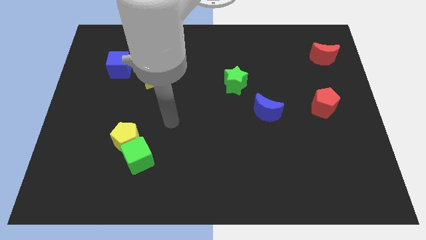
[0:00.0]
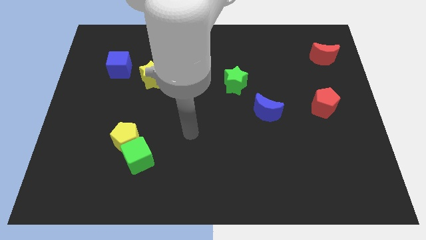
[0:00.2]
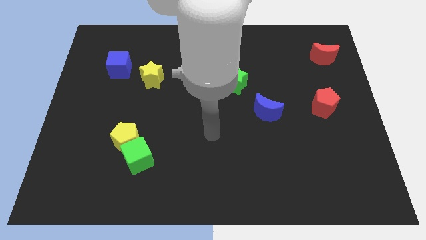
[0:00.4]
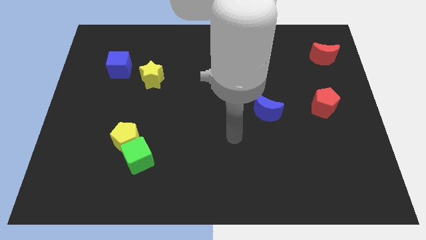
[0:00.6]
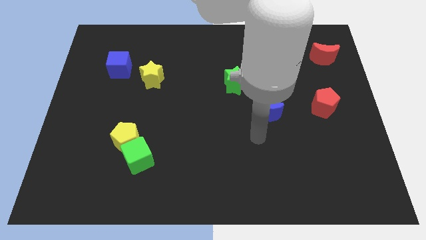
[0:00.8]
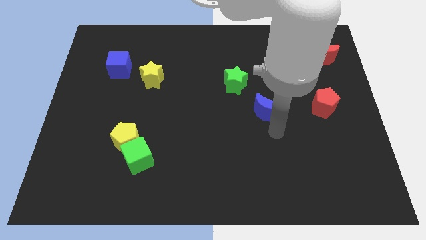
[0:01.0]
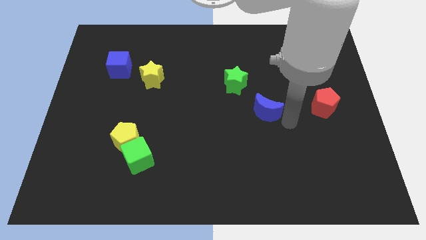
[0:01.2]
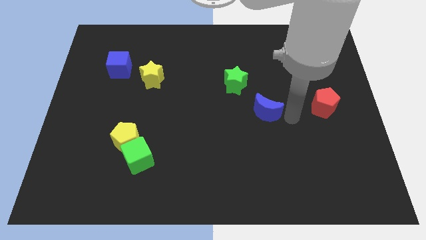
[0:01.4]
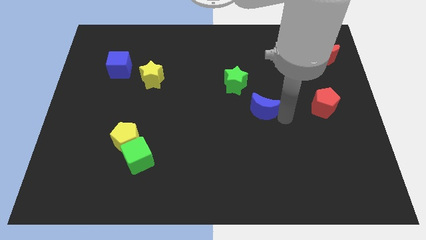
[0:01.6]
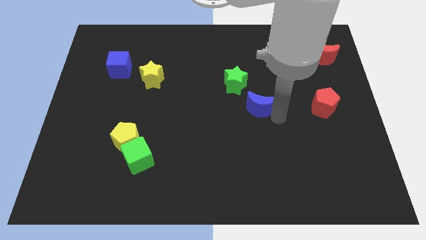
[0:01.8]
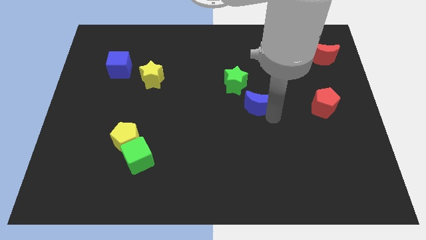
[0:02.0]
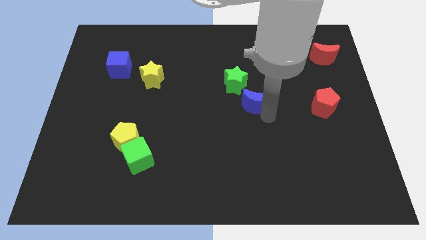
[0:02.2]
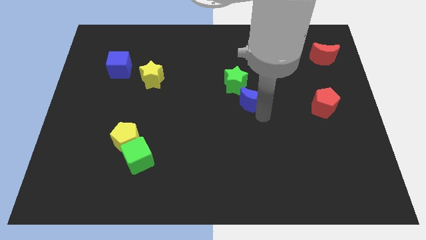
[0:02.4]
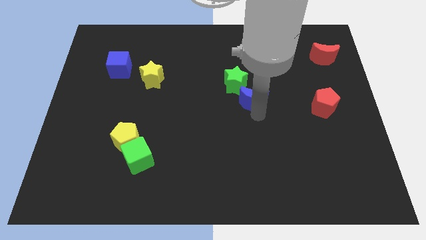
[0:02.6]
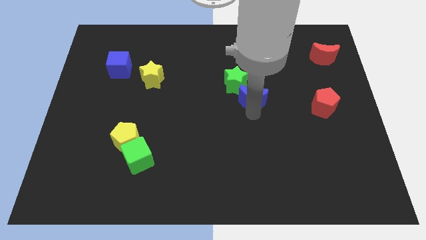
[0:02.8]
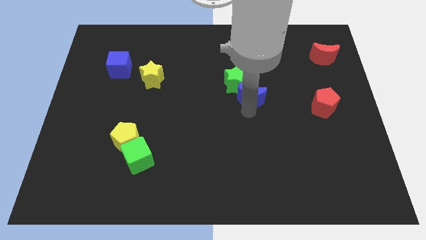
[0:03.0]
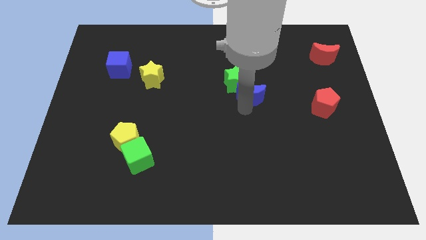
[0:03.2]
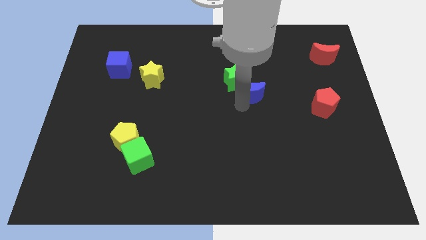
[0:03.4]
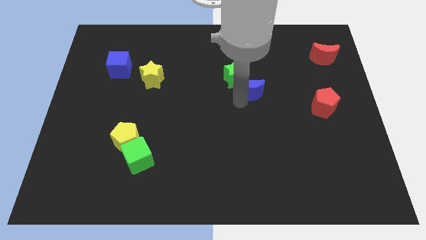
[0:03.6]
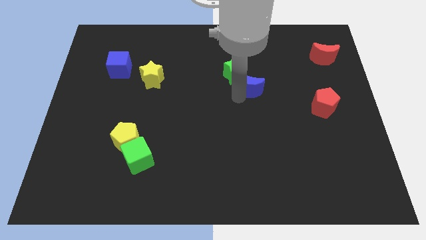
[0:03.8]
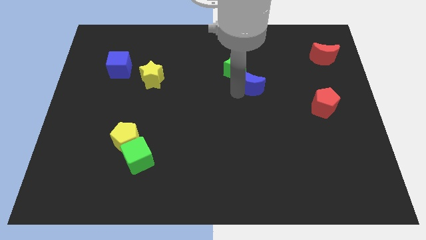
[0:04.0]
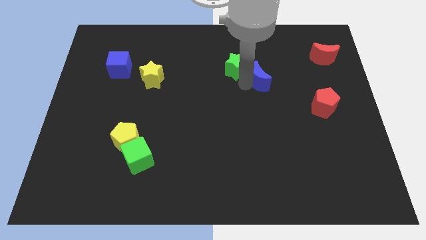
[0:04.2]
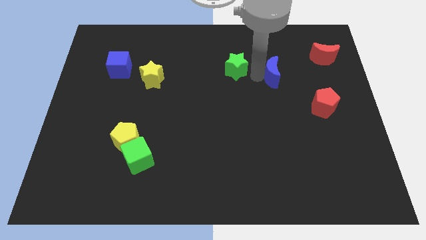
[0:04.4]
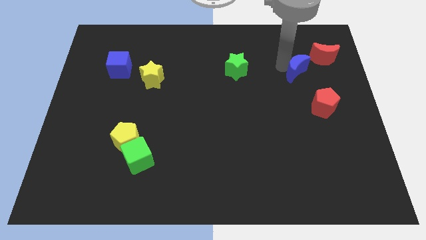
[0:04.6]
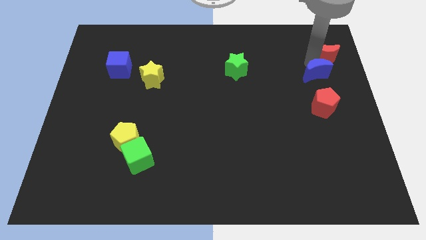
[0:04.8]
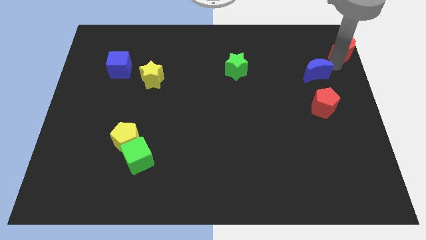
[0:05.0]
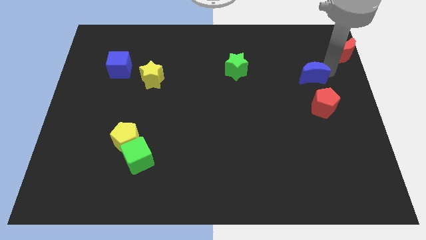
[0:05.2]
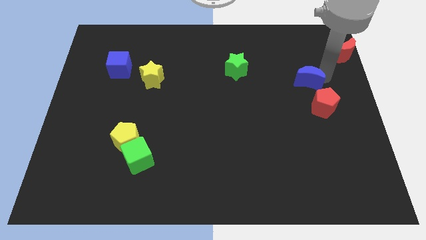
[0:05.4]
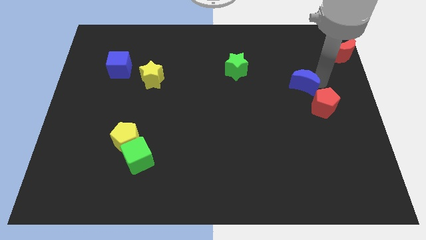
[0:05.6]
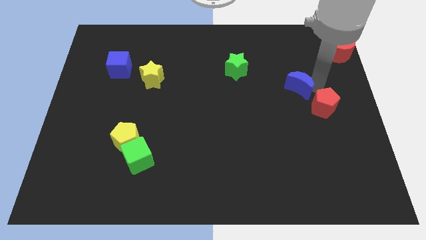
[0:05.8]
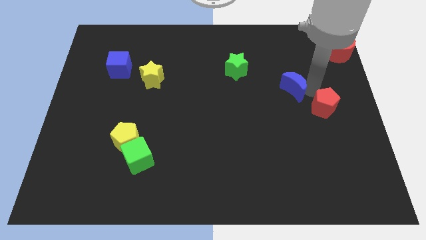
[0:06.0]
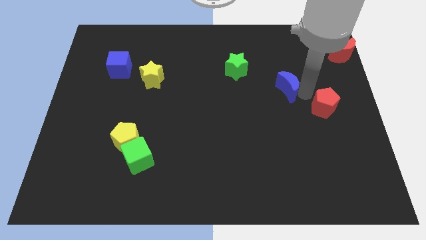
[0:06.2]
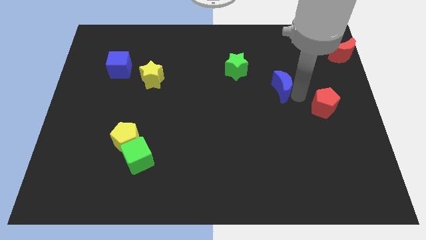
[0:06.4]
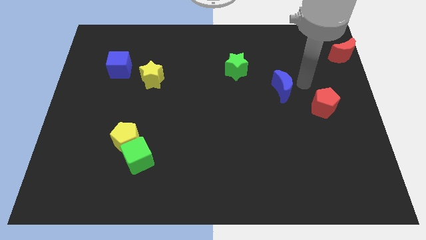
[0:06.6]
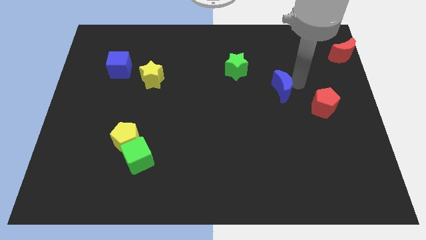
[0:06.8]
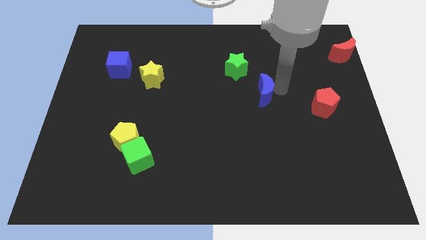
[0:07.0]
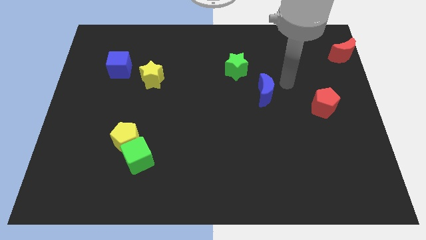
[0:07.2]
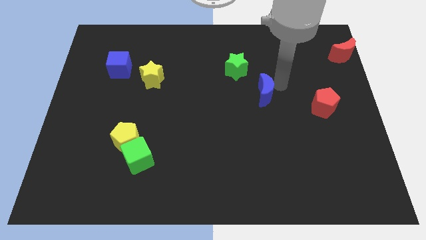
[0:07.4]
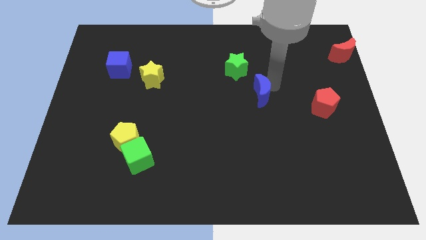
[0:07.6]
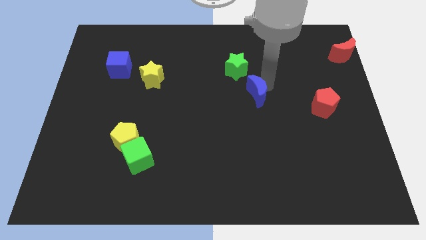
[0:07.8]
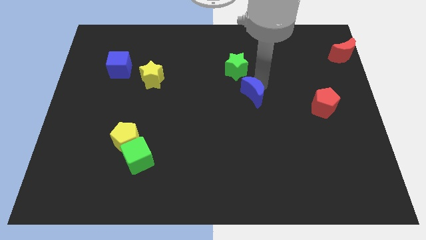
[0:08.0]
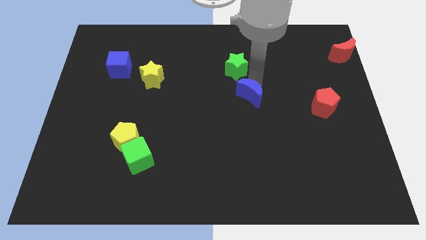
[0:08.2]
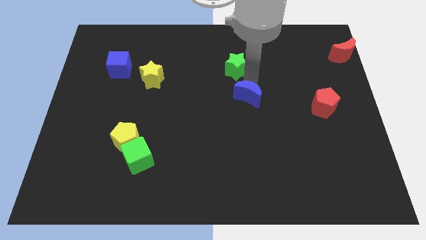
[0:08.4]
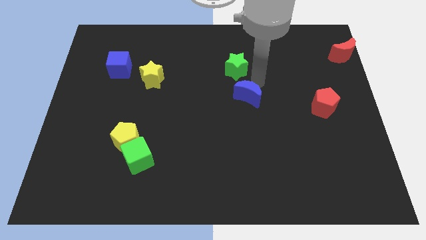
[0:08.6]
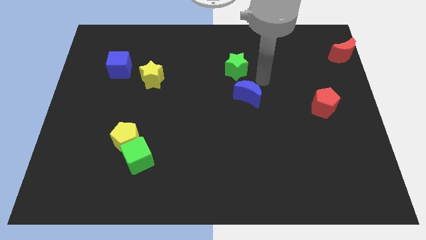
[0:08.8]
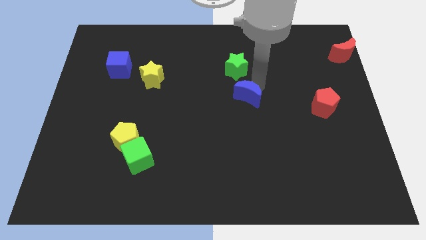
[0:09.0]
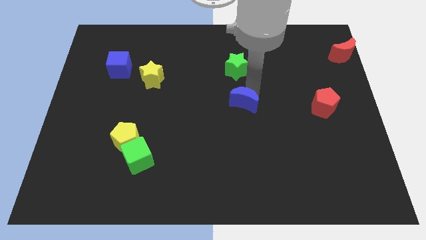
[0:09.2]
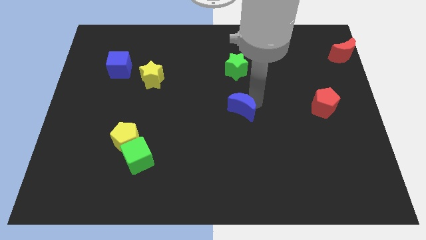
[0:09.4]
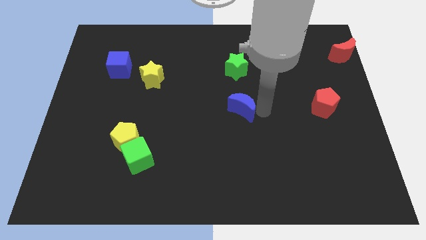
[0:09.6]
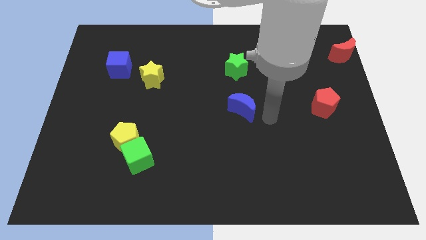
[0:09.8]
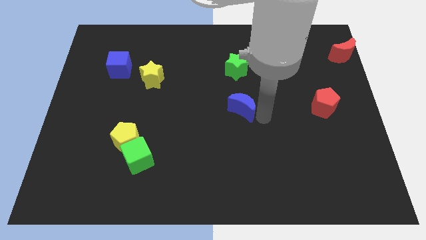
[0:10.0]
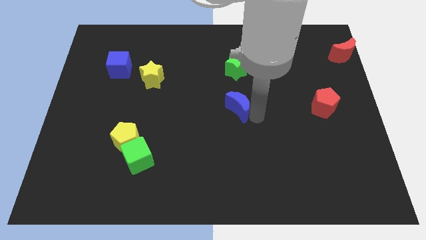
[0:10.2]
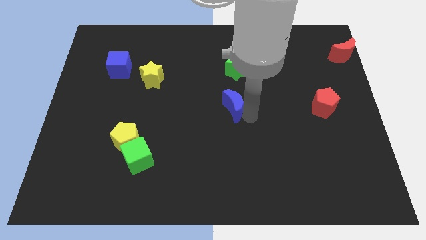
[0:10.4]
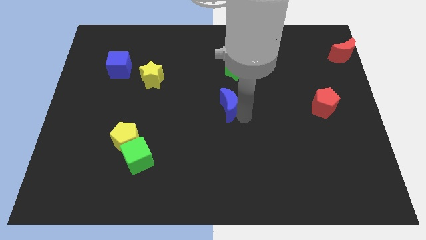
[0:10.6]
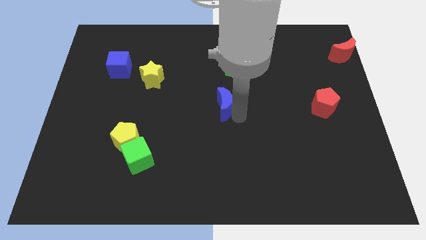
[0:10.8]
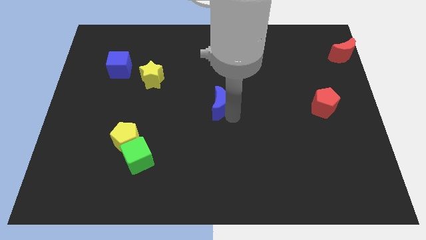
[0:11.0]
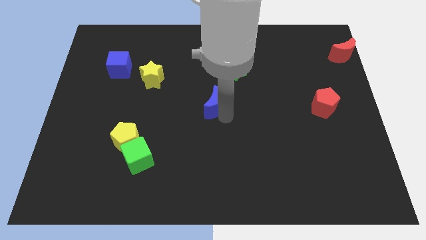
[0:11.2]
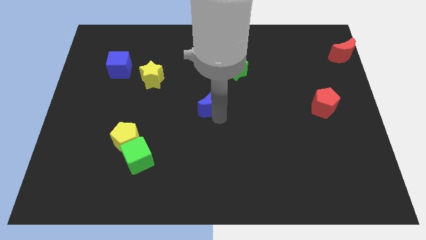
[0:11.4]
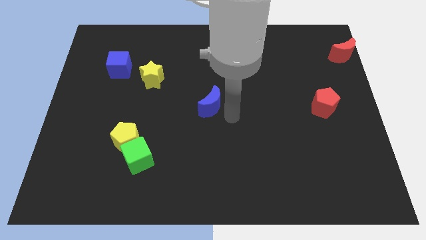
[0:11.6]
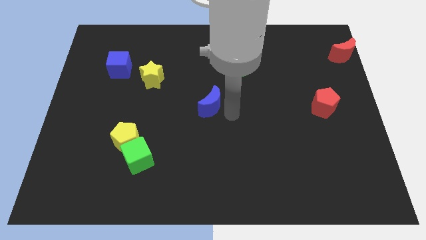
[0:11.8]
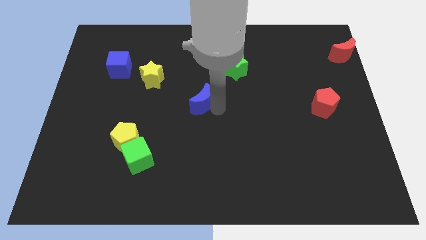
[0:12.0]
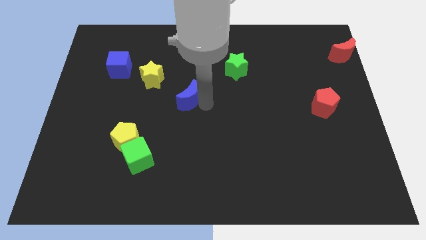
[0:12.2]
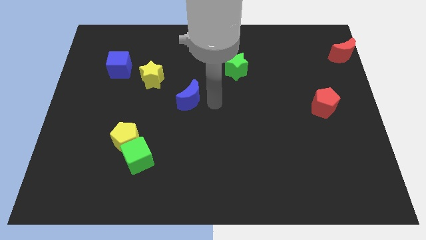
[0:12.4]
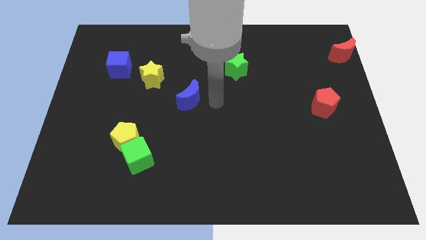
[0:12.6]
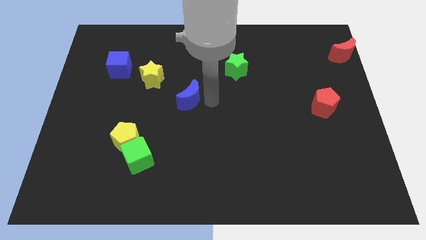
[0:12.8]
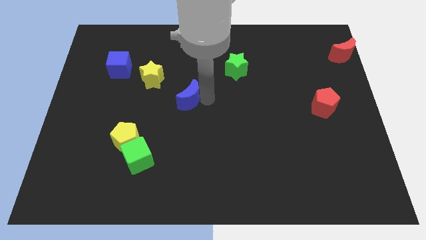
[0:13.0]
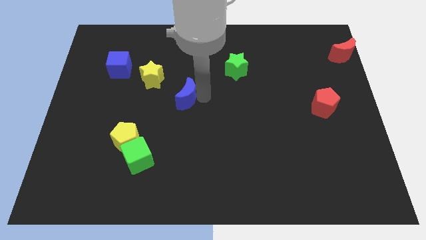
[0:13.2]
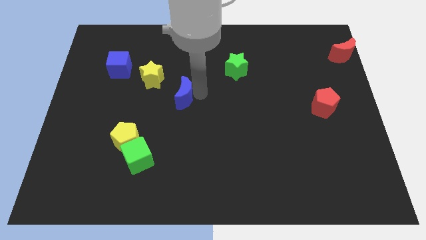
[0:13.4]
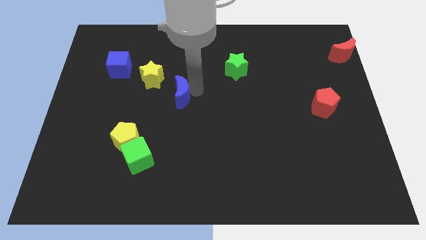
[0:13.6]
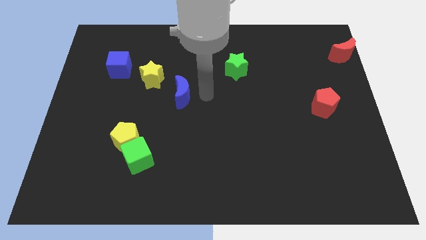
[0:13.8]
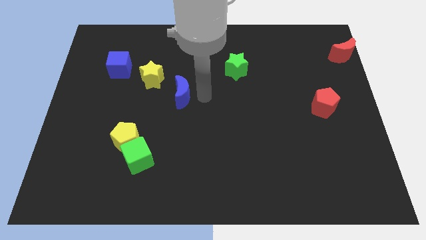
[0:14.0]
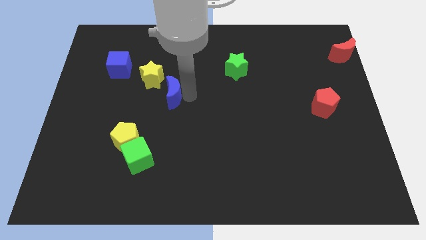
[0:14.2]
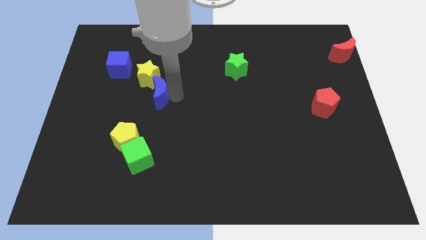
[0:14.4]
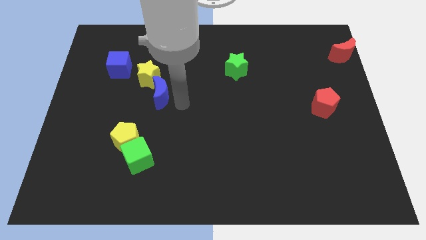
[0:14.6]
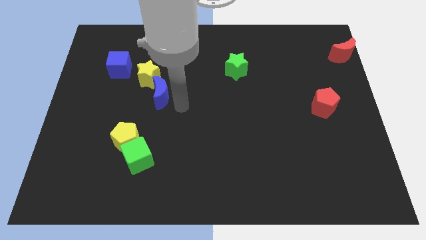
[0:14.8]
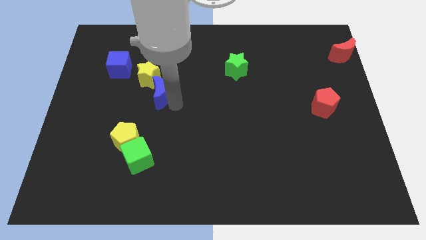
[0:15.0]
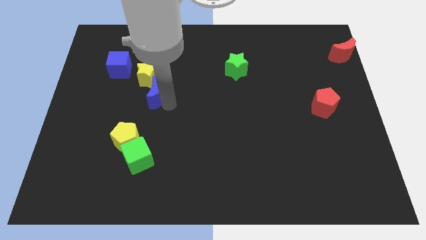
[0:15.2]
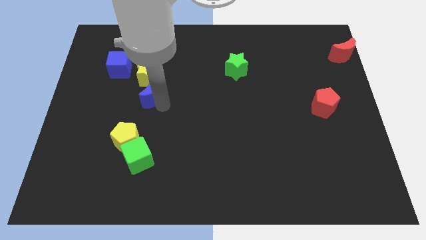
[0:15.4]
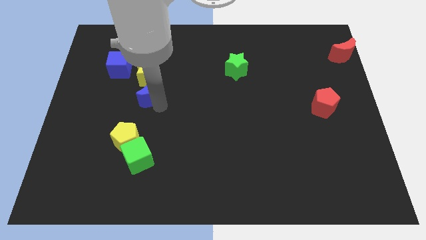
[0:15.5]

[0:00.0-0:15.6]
push the blue moon to the bottom right side of the blue cube
